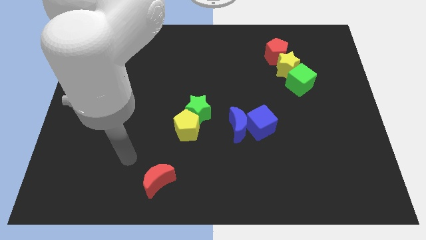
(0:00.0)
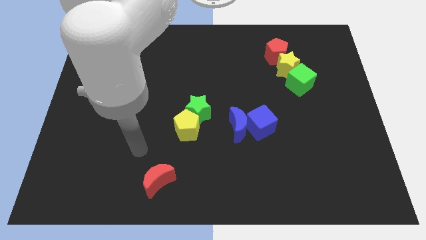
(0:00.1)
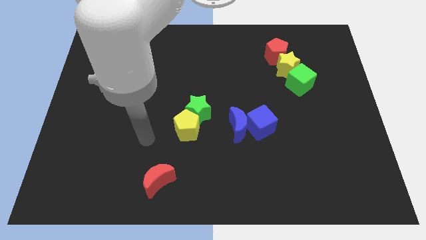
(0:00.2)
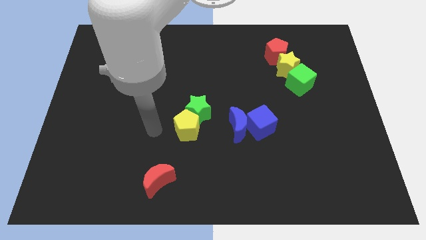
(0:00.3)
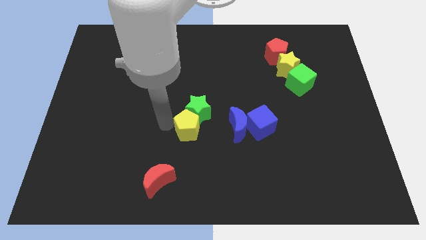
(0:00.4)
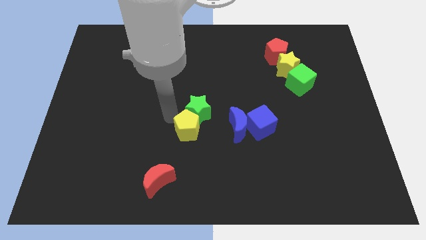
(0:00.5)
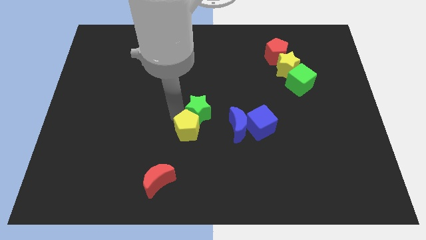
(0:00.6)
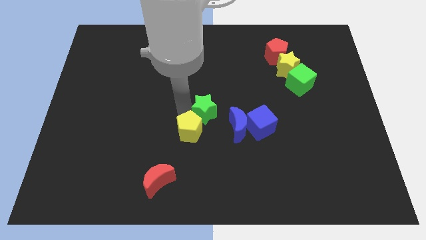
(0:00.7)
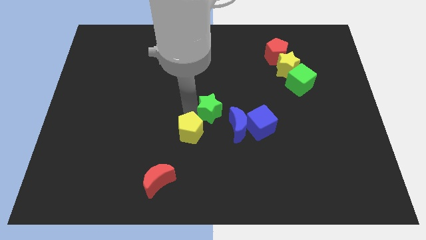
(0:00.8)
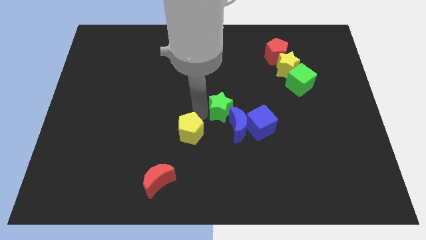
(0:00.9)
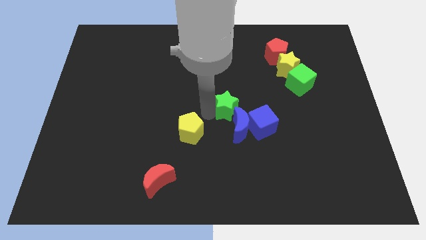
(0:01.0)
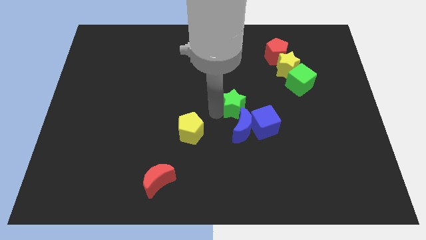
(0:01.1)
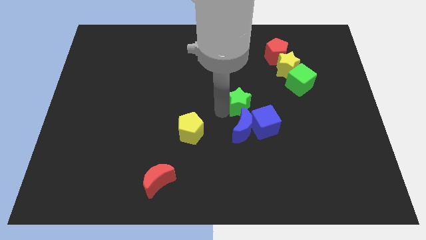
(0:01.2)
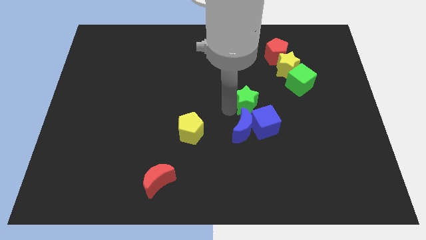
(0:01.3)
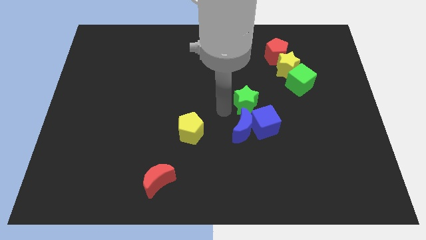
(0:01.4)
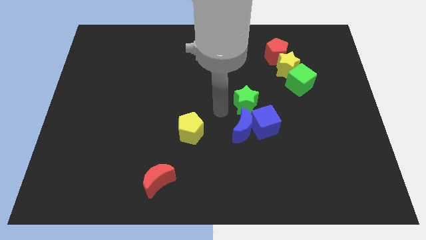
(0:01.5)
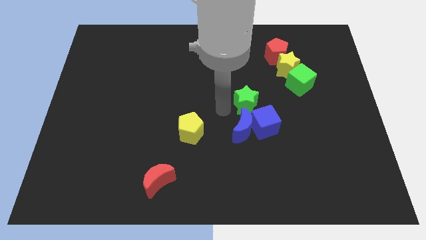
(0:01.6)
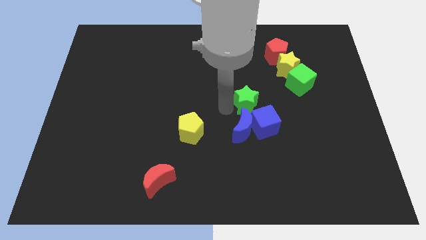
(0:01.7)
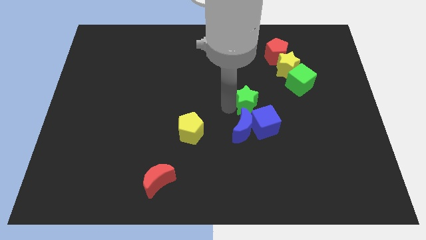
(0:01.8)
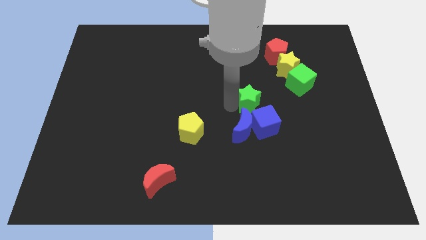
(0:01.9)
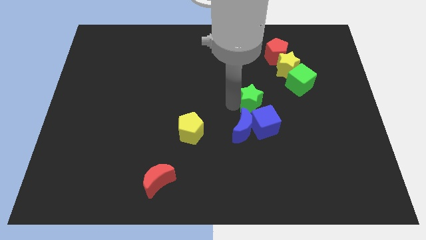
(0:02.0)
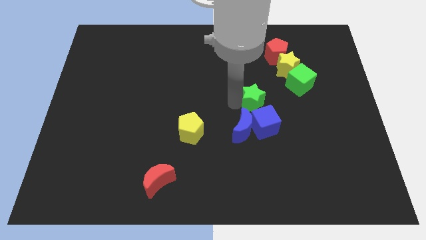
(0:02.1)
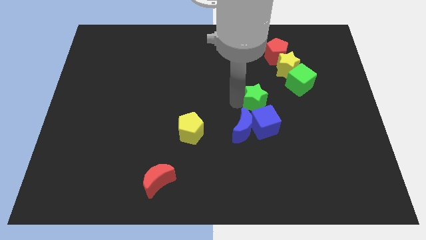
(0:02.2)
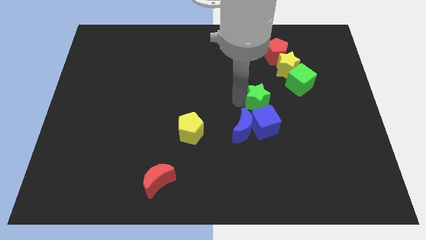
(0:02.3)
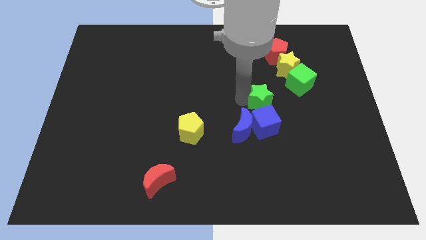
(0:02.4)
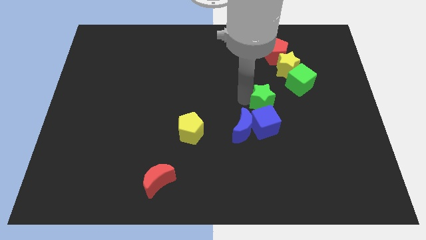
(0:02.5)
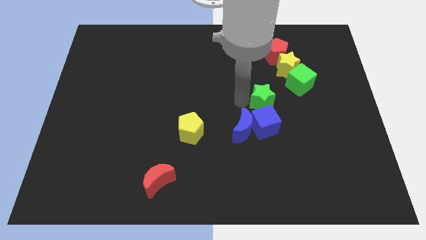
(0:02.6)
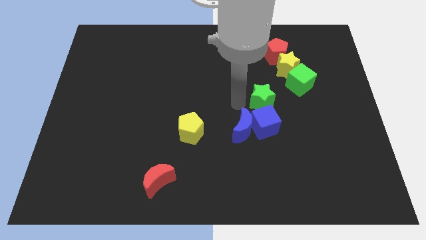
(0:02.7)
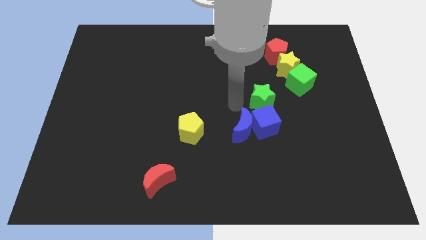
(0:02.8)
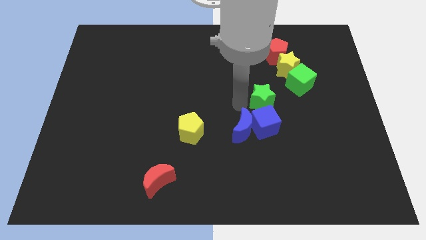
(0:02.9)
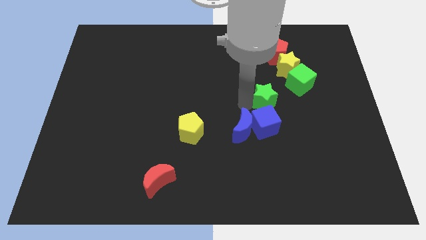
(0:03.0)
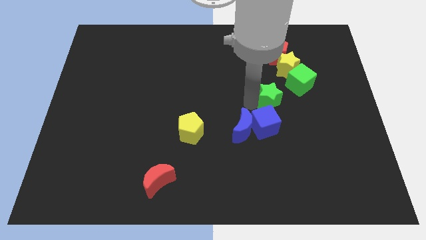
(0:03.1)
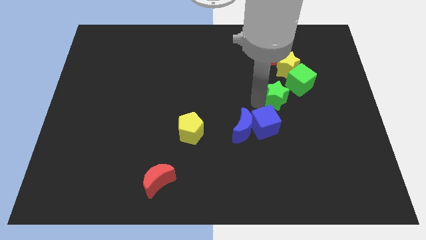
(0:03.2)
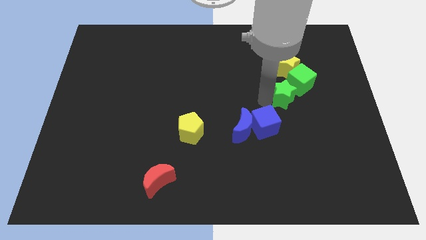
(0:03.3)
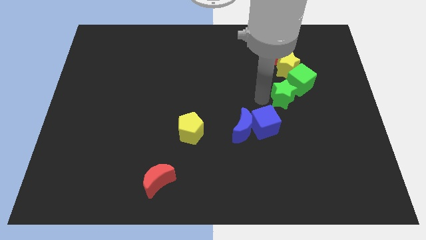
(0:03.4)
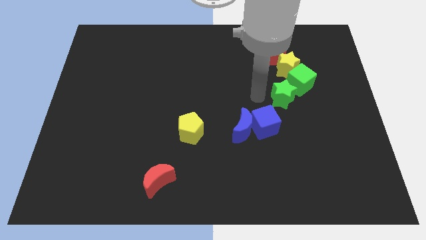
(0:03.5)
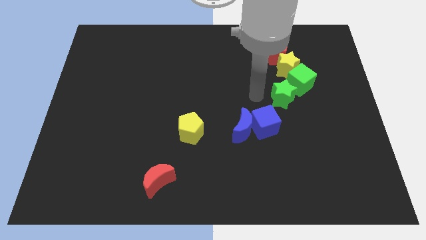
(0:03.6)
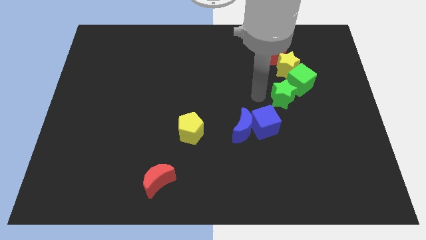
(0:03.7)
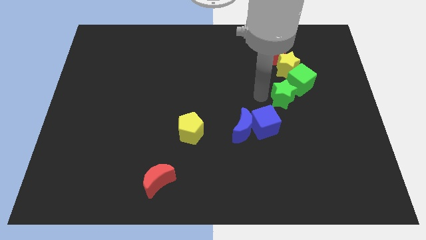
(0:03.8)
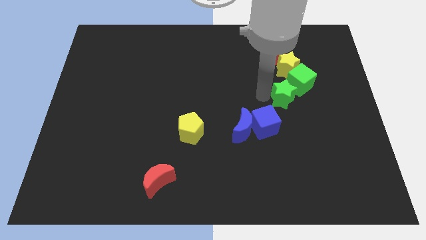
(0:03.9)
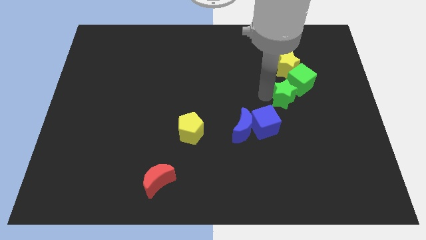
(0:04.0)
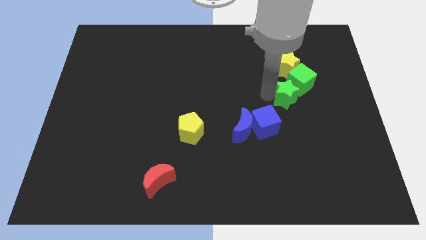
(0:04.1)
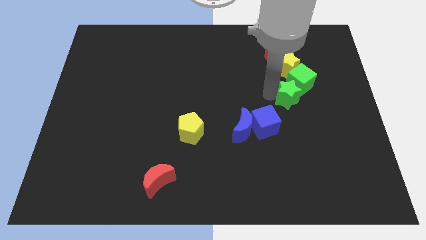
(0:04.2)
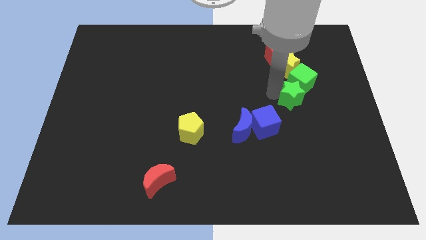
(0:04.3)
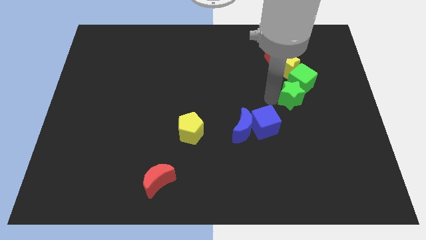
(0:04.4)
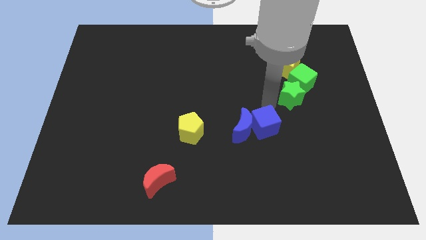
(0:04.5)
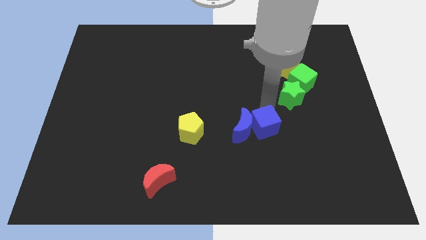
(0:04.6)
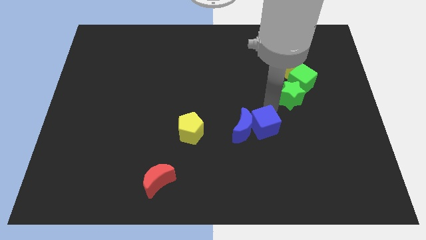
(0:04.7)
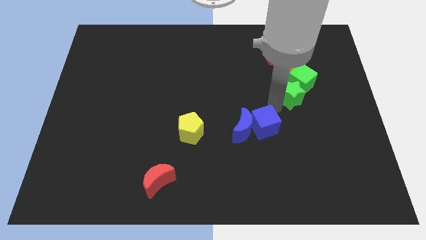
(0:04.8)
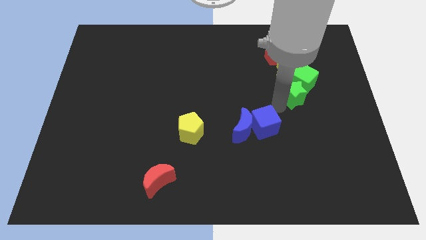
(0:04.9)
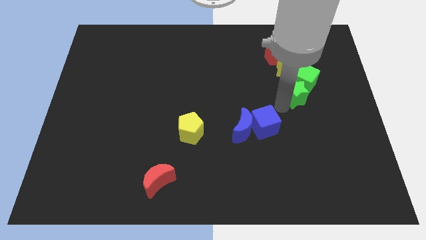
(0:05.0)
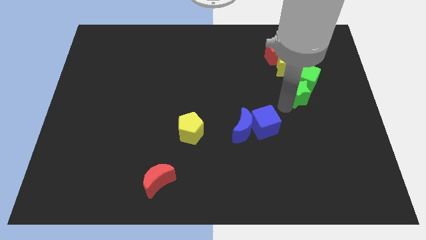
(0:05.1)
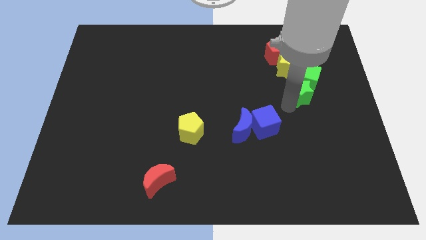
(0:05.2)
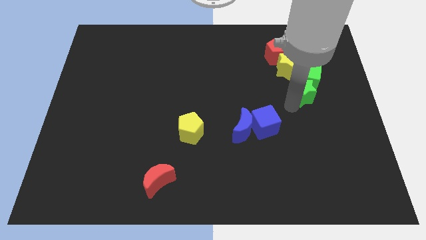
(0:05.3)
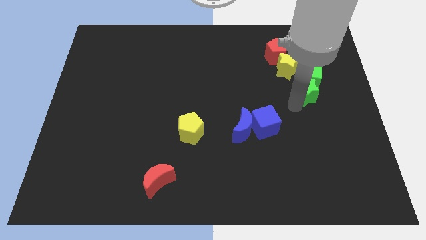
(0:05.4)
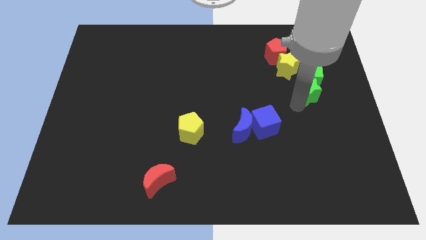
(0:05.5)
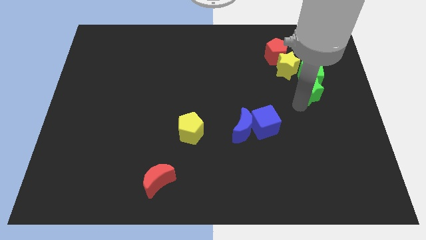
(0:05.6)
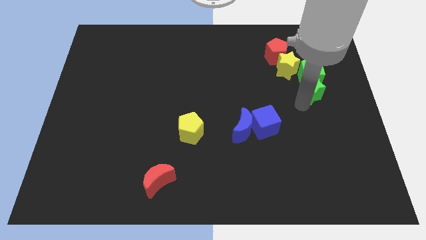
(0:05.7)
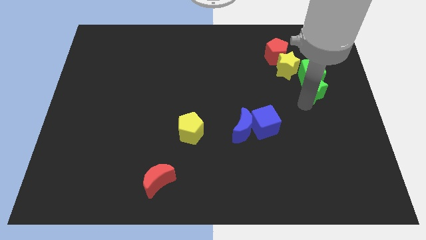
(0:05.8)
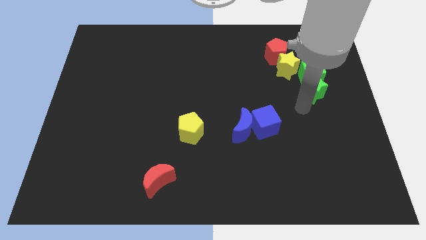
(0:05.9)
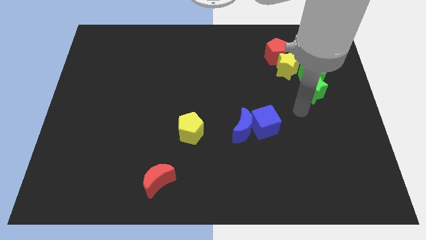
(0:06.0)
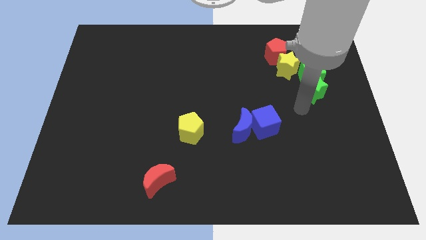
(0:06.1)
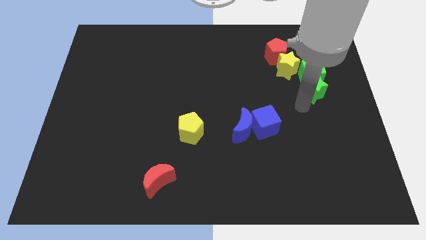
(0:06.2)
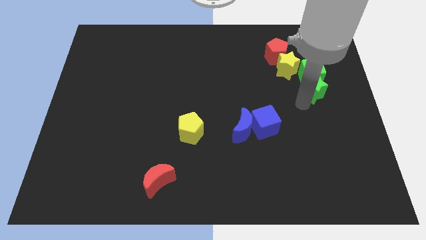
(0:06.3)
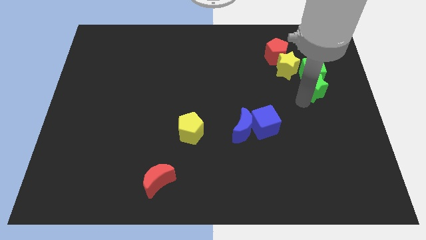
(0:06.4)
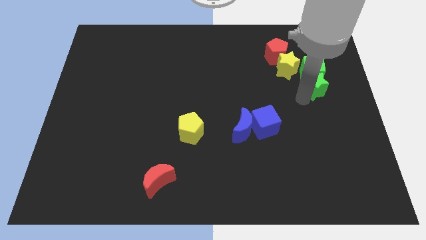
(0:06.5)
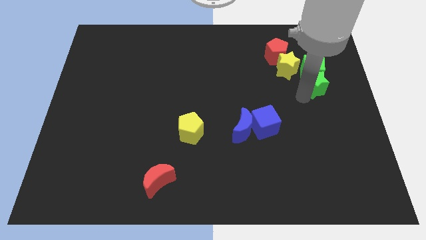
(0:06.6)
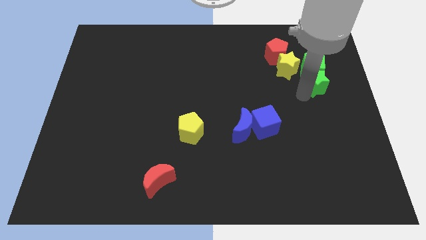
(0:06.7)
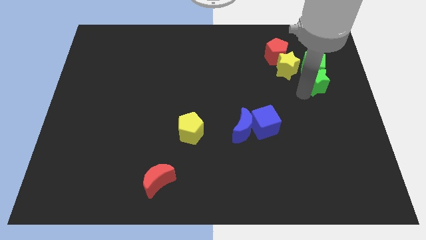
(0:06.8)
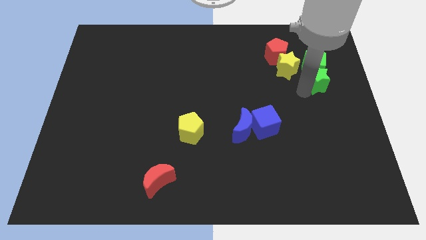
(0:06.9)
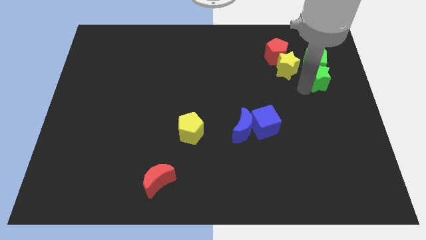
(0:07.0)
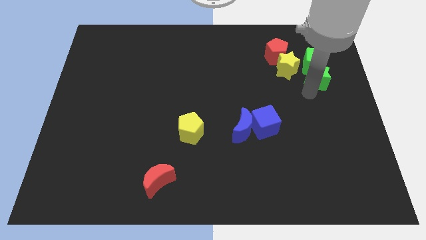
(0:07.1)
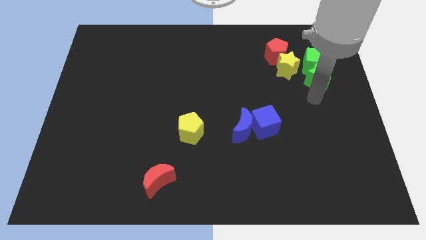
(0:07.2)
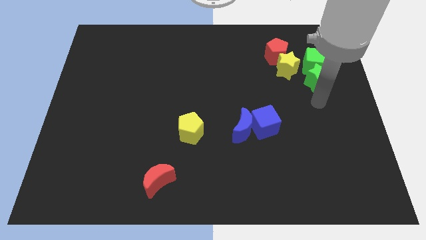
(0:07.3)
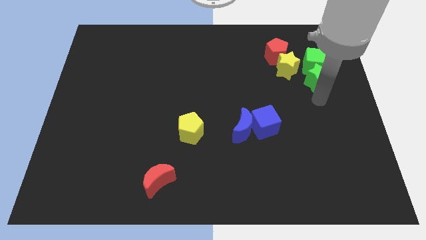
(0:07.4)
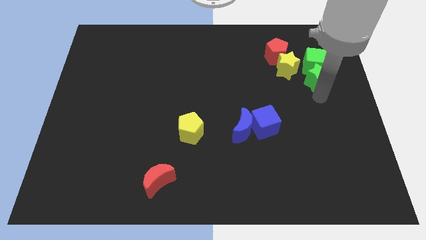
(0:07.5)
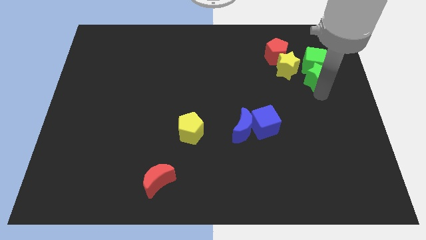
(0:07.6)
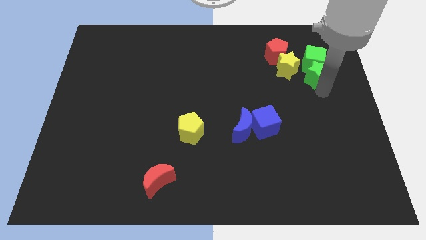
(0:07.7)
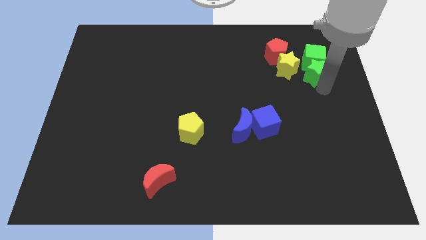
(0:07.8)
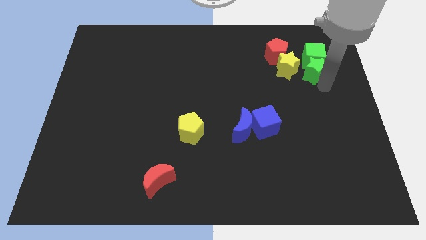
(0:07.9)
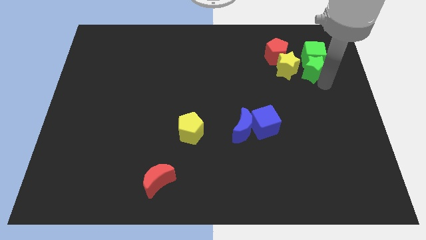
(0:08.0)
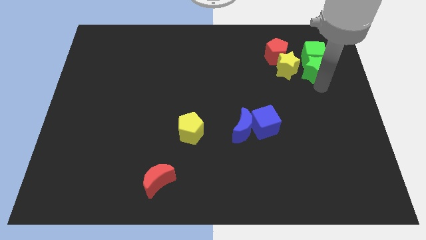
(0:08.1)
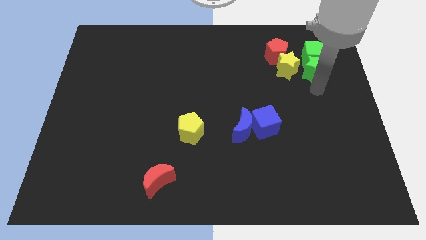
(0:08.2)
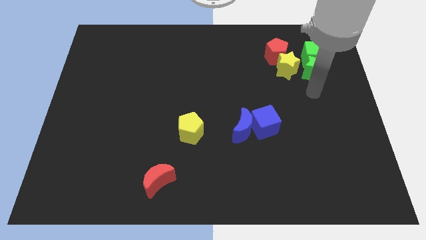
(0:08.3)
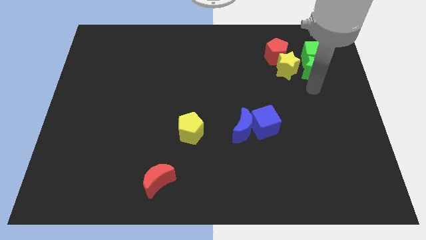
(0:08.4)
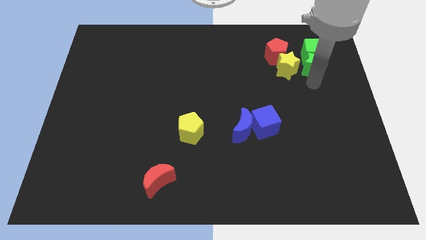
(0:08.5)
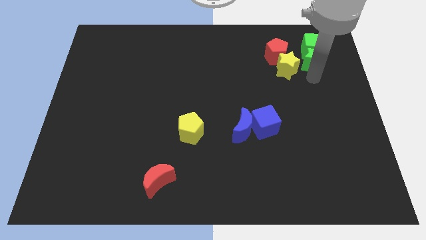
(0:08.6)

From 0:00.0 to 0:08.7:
push the green star to the right side of the red pentagon
